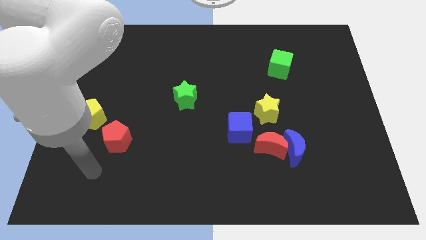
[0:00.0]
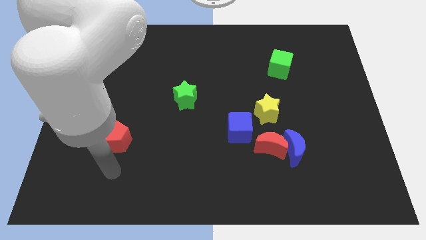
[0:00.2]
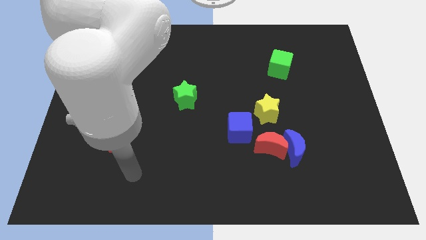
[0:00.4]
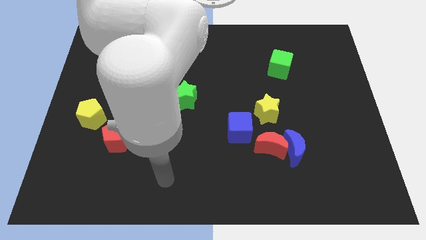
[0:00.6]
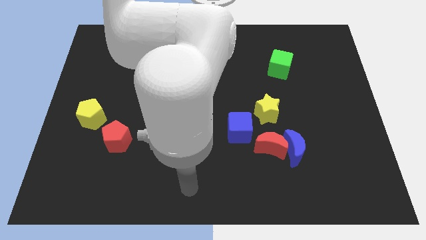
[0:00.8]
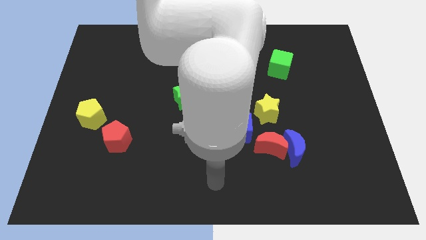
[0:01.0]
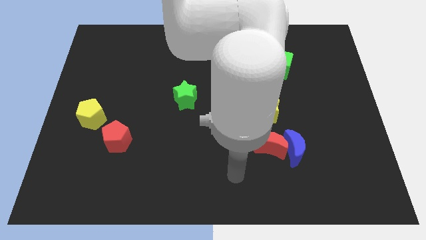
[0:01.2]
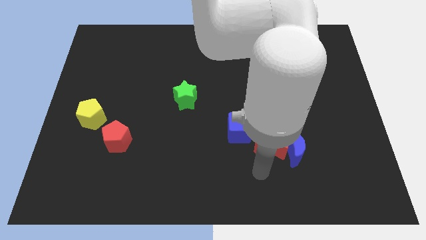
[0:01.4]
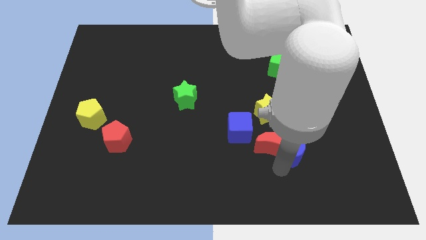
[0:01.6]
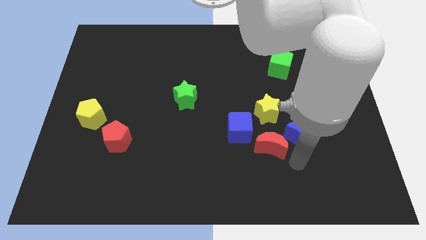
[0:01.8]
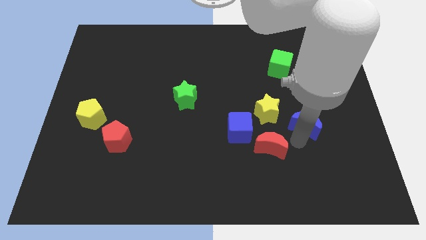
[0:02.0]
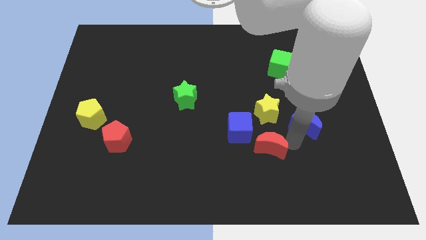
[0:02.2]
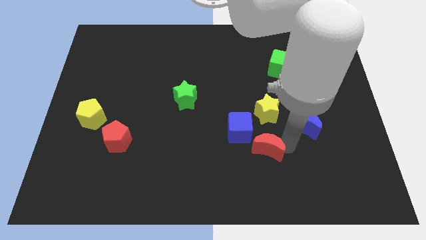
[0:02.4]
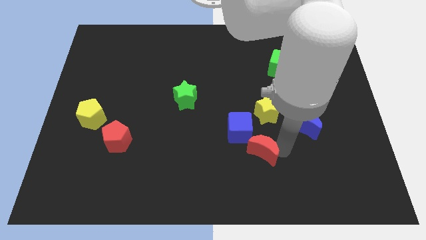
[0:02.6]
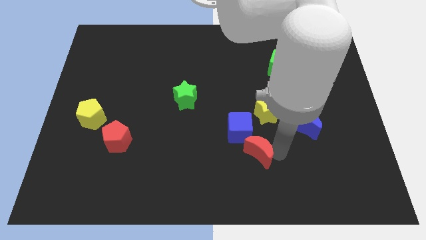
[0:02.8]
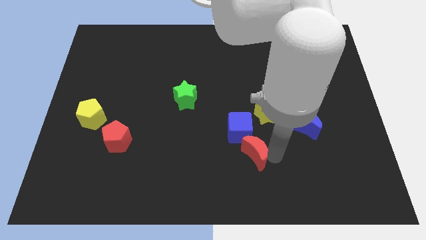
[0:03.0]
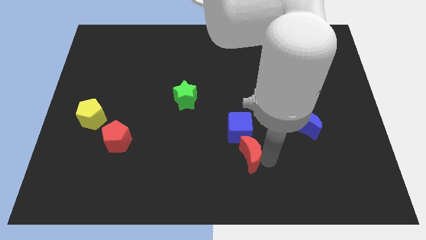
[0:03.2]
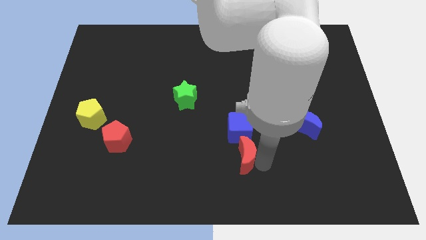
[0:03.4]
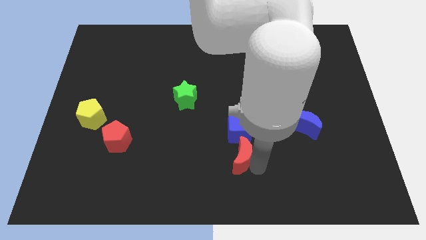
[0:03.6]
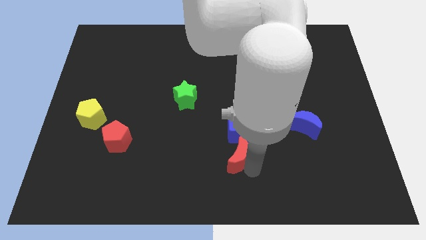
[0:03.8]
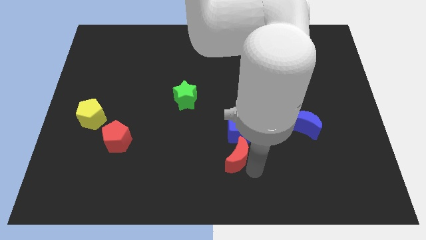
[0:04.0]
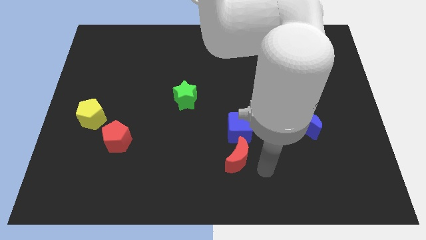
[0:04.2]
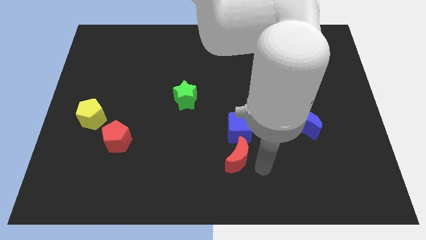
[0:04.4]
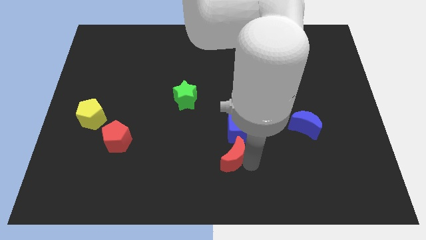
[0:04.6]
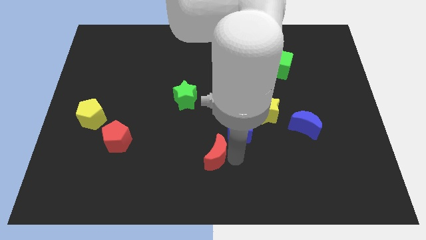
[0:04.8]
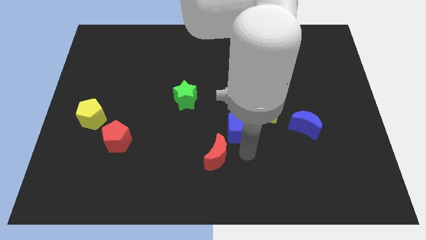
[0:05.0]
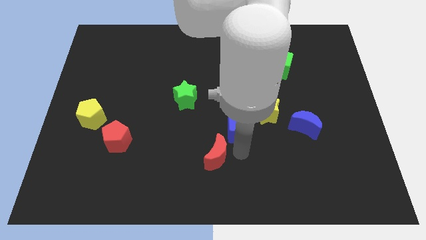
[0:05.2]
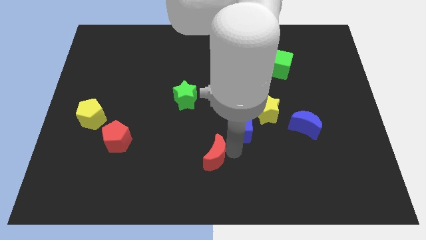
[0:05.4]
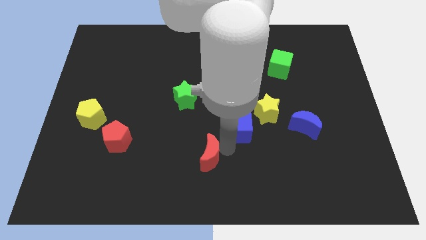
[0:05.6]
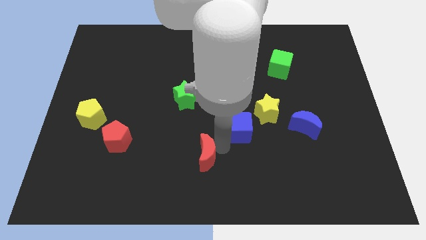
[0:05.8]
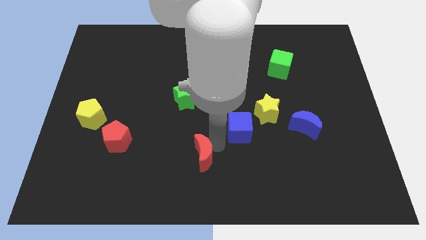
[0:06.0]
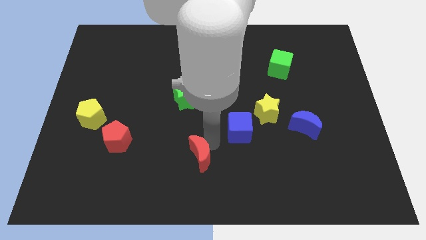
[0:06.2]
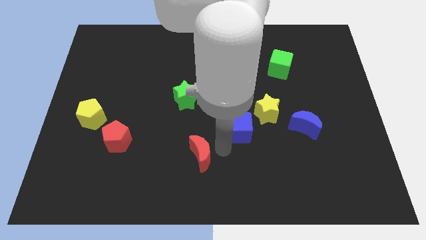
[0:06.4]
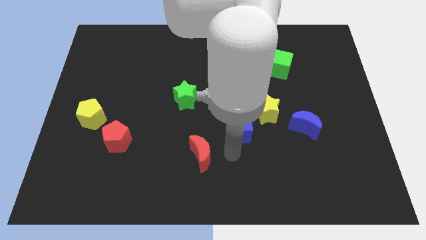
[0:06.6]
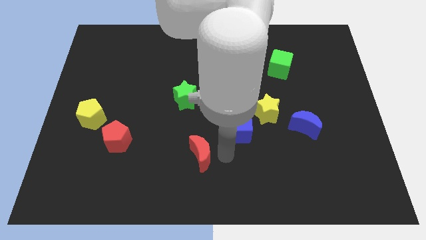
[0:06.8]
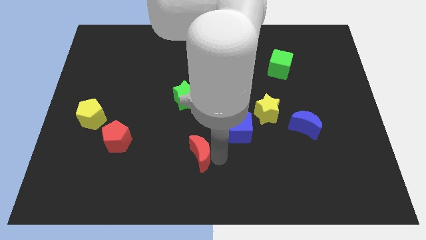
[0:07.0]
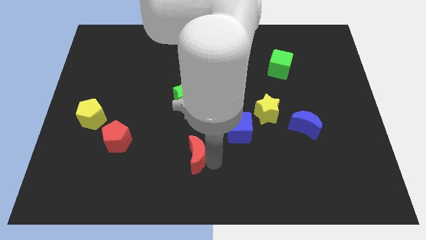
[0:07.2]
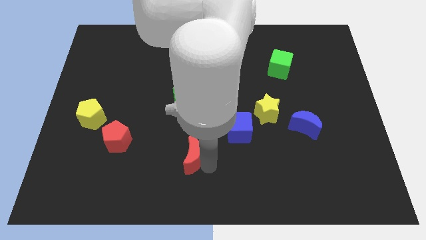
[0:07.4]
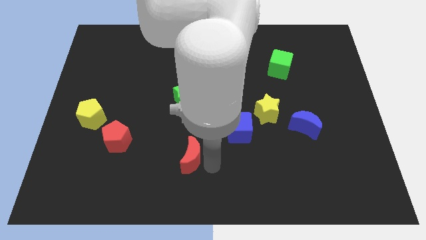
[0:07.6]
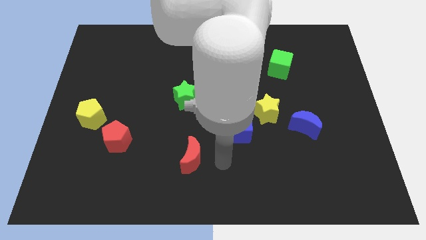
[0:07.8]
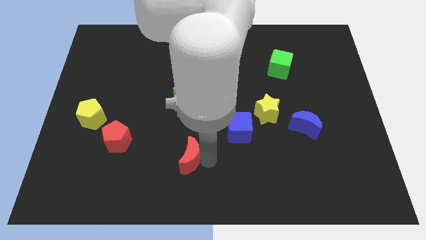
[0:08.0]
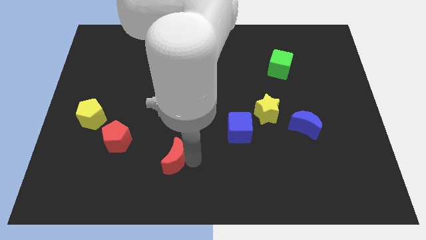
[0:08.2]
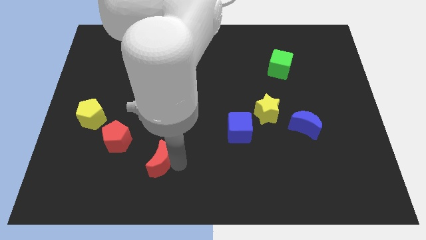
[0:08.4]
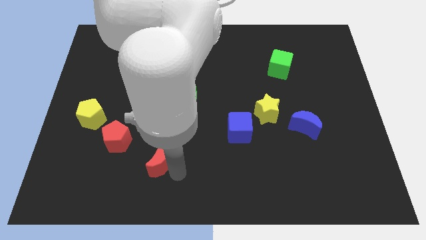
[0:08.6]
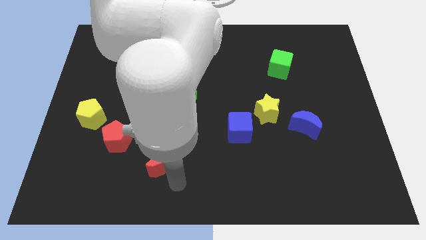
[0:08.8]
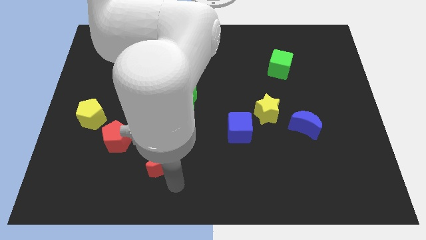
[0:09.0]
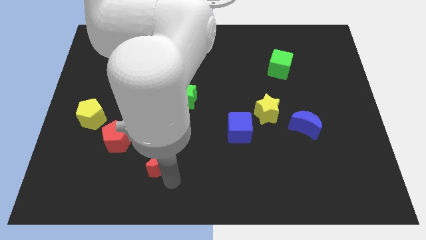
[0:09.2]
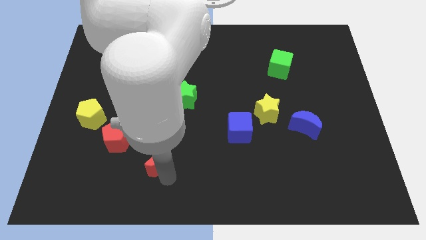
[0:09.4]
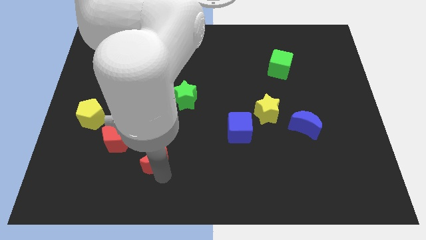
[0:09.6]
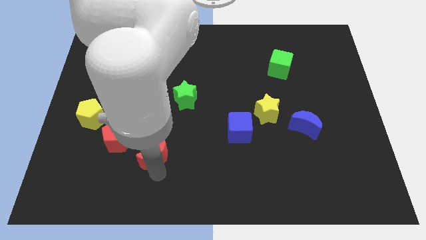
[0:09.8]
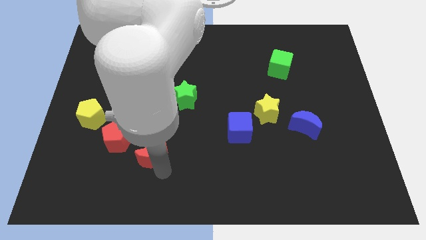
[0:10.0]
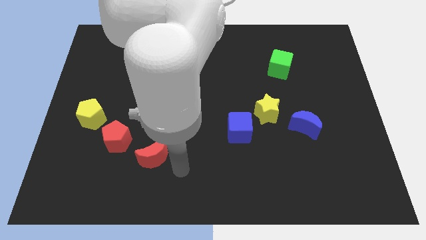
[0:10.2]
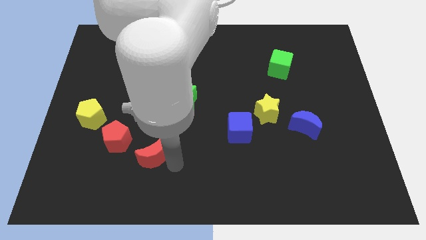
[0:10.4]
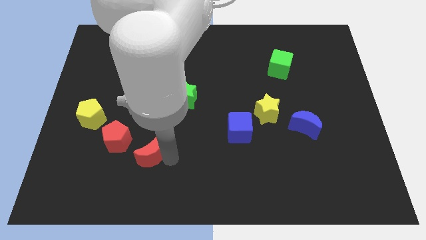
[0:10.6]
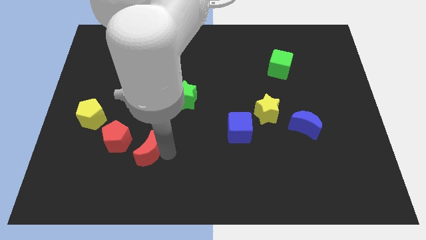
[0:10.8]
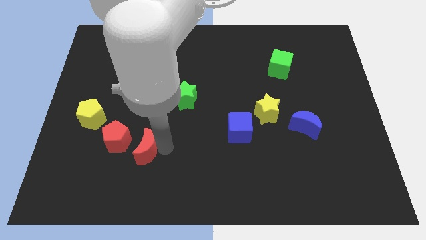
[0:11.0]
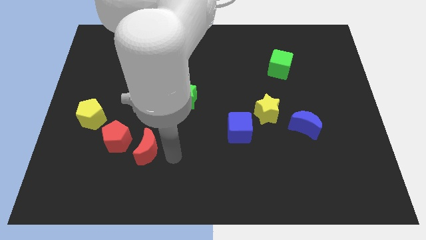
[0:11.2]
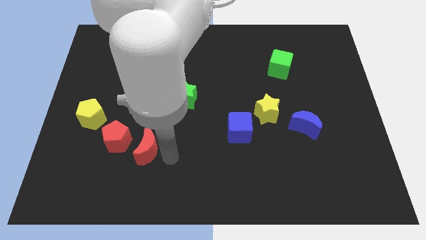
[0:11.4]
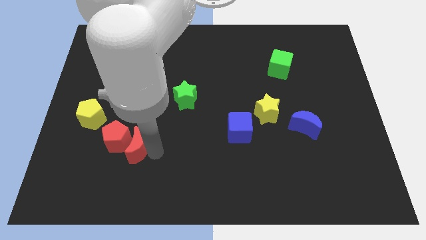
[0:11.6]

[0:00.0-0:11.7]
slide the red moon close to the red pentagon

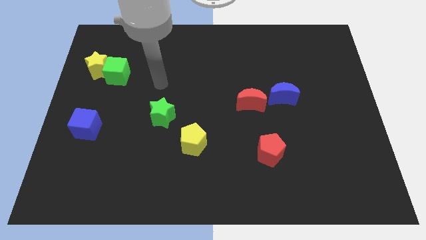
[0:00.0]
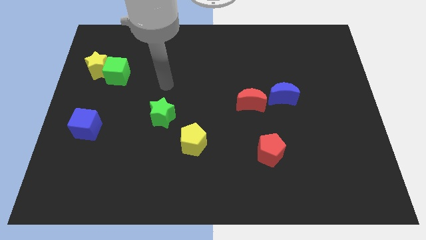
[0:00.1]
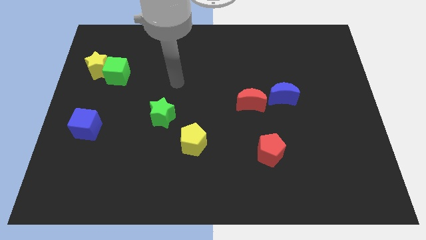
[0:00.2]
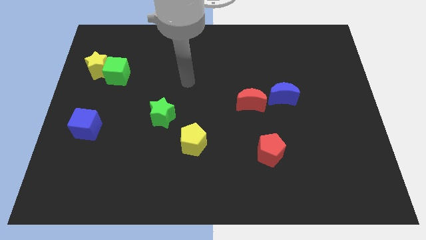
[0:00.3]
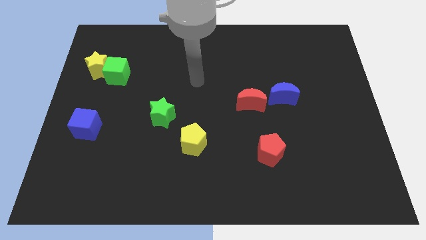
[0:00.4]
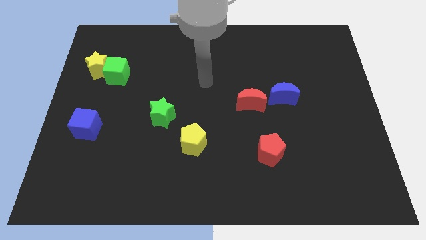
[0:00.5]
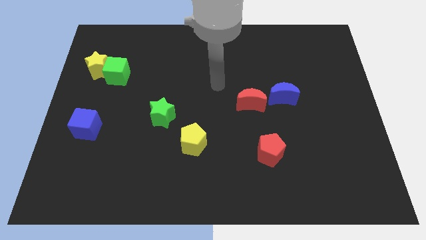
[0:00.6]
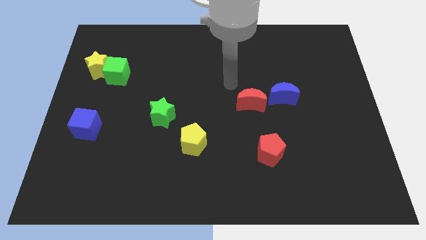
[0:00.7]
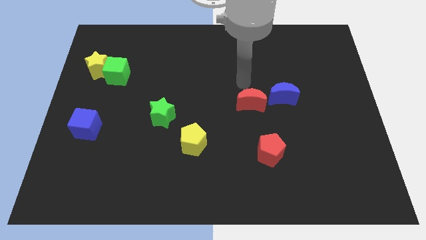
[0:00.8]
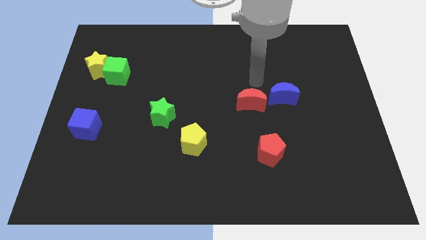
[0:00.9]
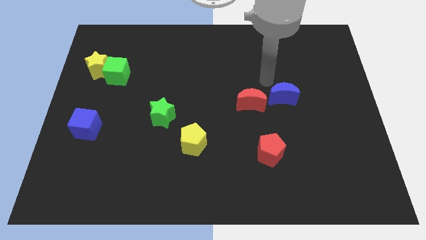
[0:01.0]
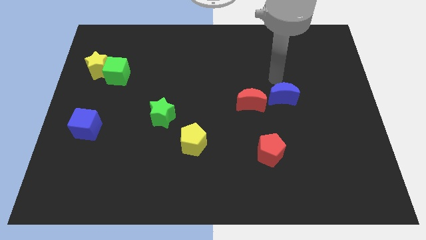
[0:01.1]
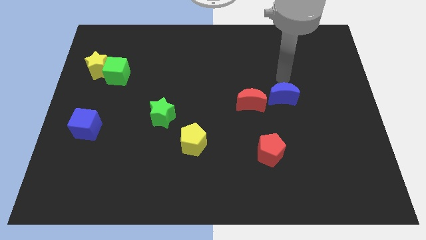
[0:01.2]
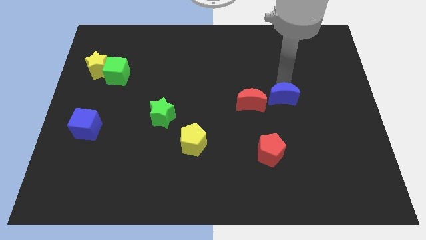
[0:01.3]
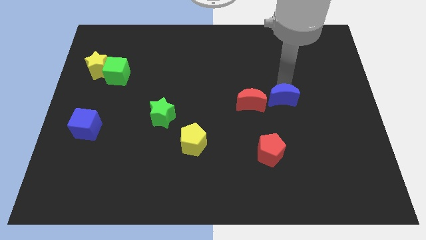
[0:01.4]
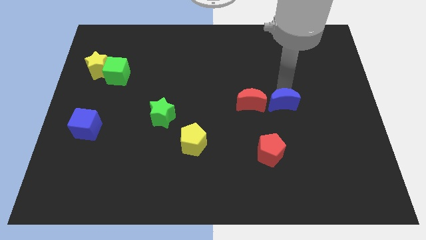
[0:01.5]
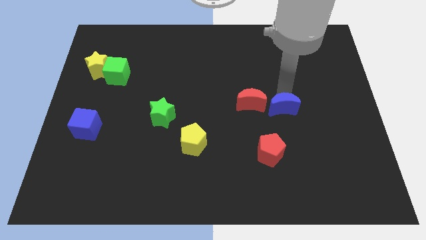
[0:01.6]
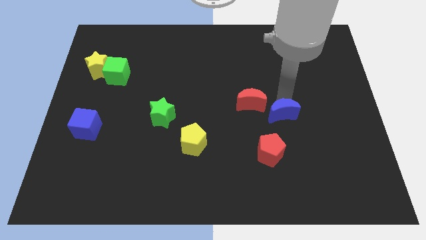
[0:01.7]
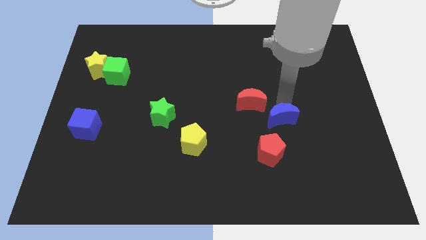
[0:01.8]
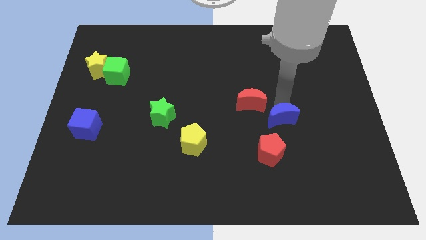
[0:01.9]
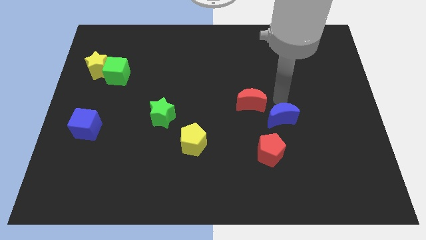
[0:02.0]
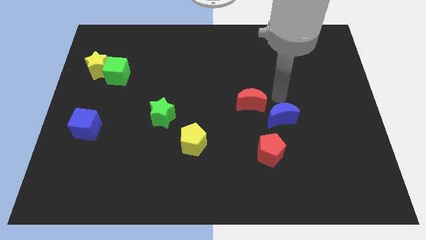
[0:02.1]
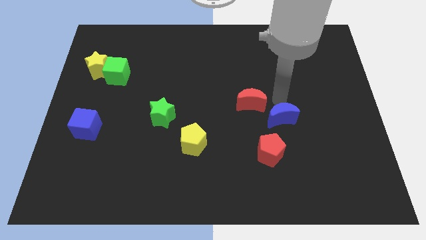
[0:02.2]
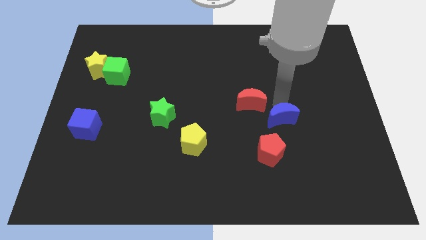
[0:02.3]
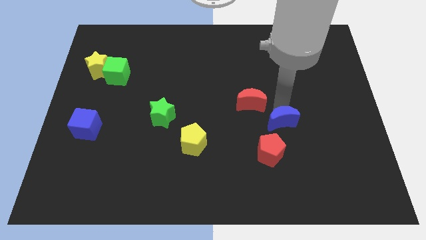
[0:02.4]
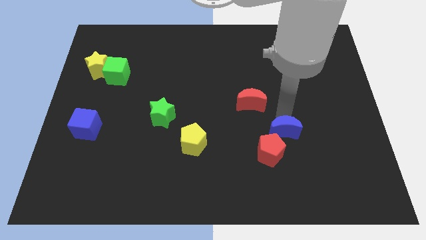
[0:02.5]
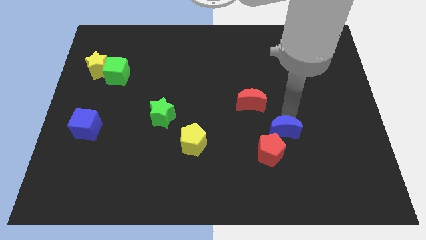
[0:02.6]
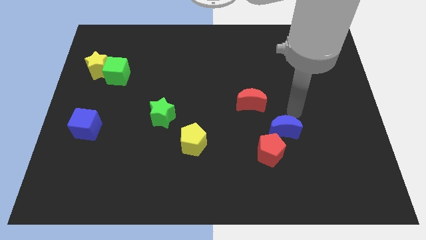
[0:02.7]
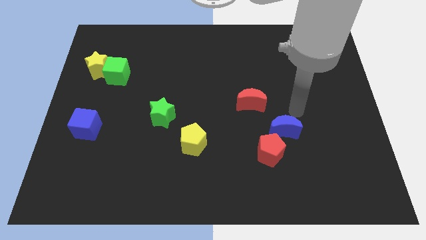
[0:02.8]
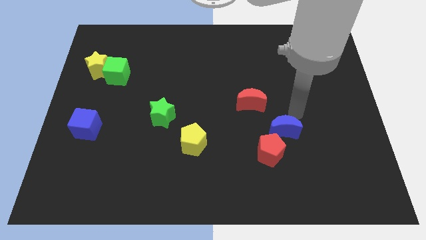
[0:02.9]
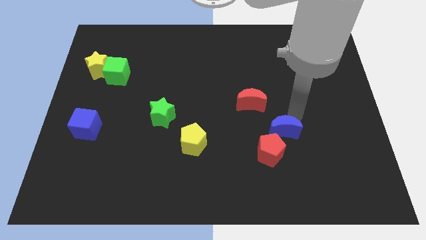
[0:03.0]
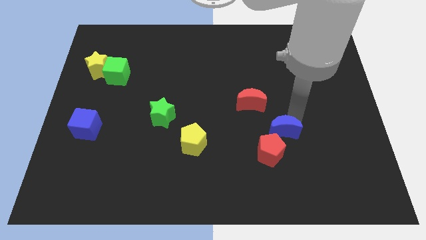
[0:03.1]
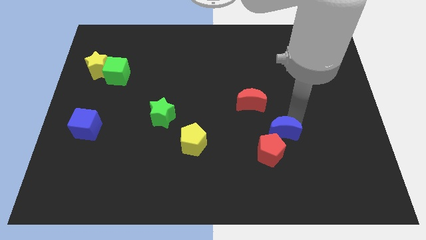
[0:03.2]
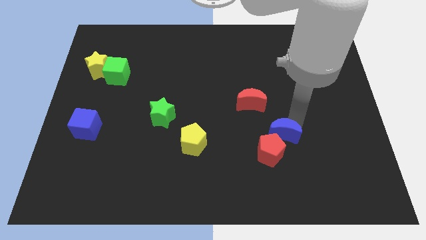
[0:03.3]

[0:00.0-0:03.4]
slide the blue moon close to the red pentagon
